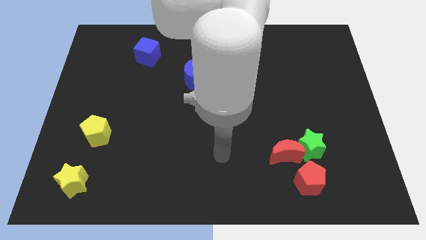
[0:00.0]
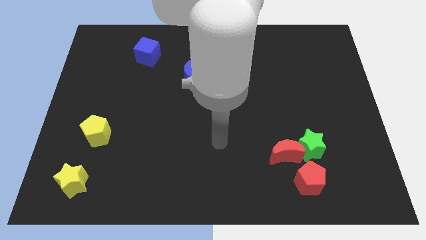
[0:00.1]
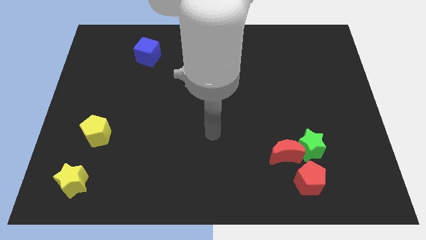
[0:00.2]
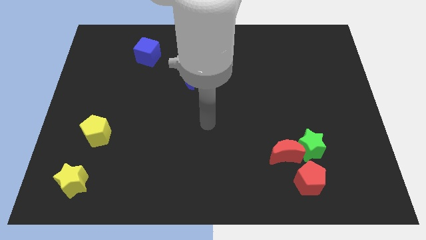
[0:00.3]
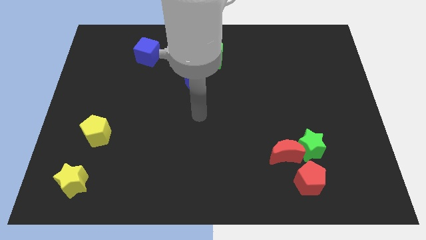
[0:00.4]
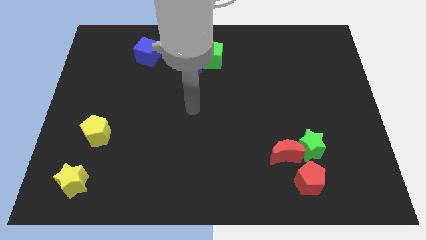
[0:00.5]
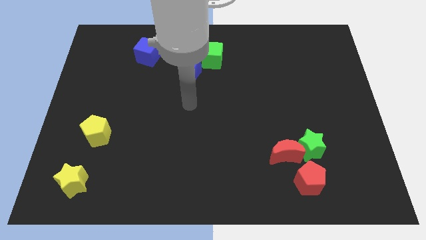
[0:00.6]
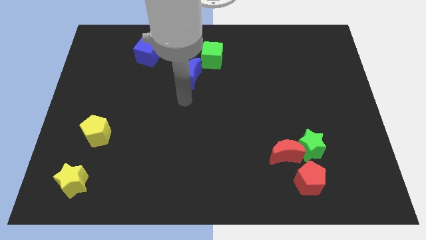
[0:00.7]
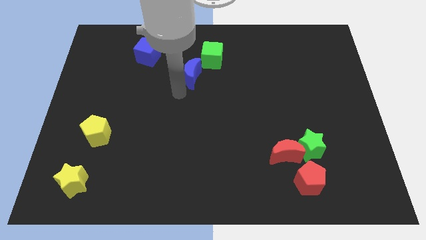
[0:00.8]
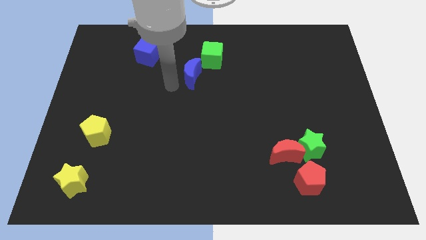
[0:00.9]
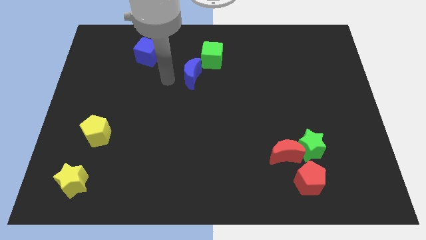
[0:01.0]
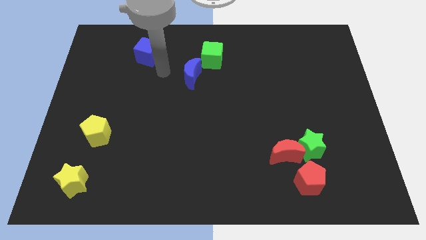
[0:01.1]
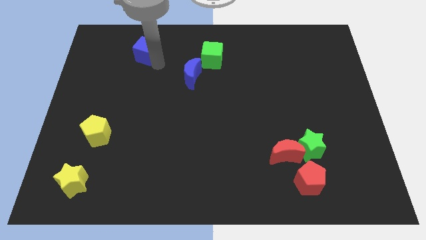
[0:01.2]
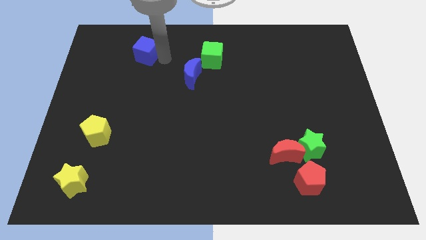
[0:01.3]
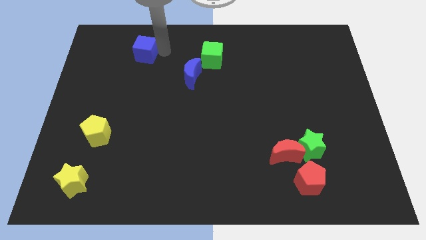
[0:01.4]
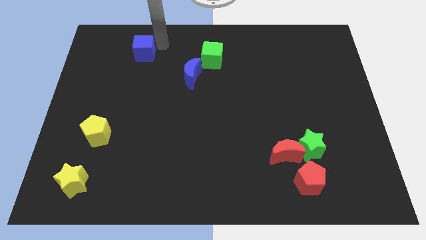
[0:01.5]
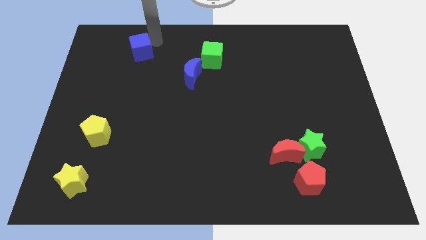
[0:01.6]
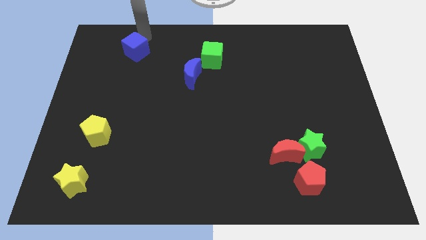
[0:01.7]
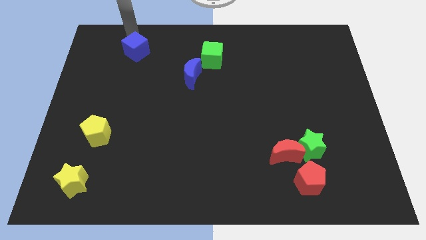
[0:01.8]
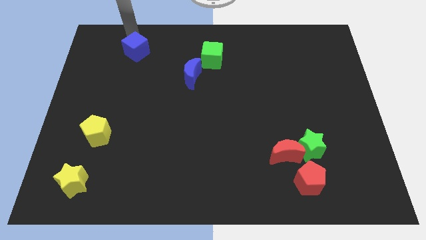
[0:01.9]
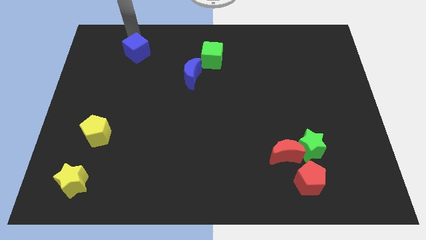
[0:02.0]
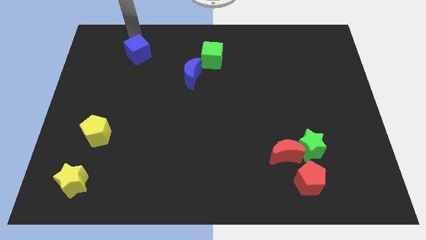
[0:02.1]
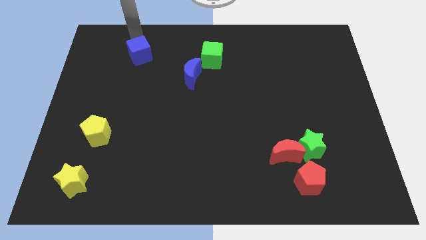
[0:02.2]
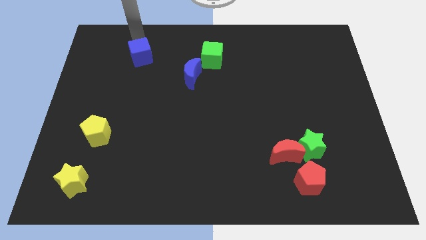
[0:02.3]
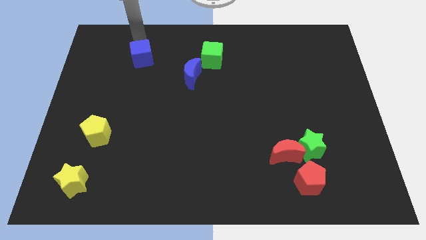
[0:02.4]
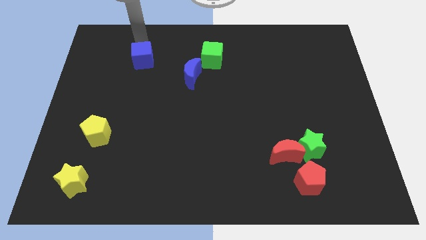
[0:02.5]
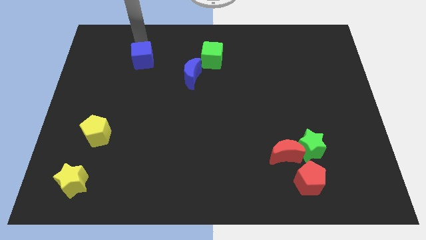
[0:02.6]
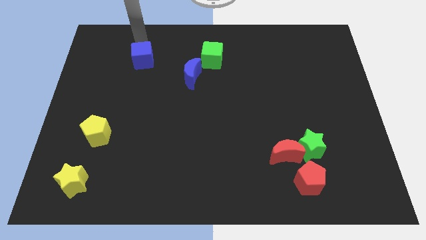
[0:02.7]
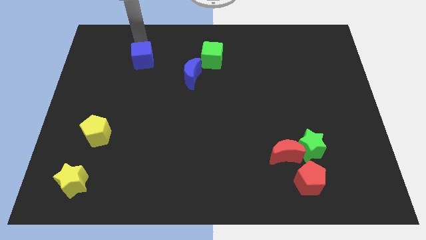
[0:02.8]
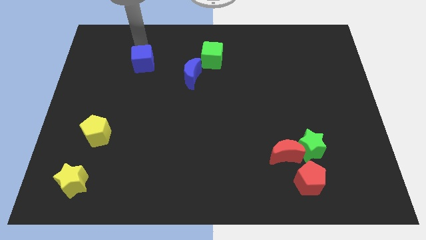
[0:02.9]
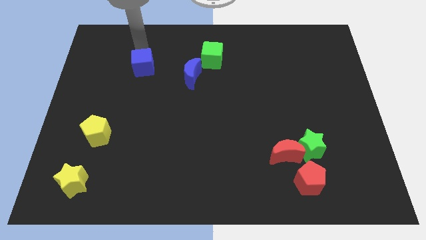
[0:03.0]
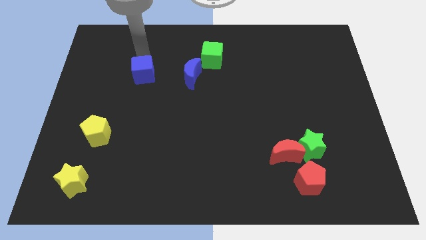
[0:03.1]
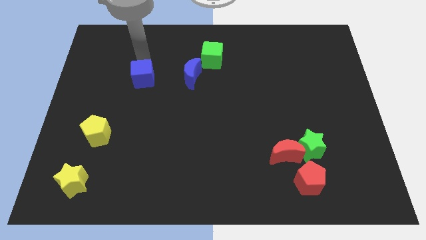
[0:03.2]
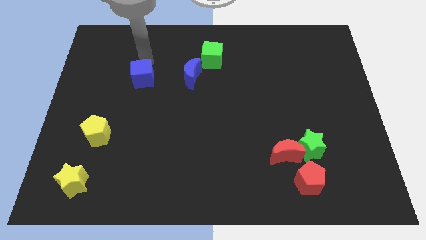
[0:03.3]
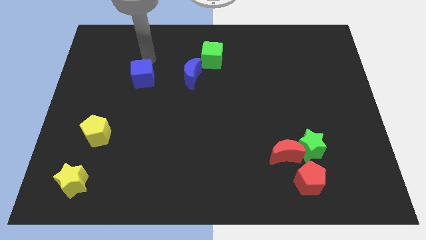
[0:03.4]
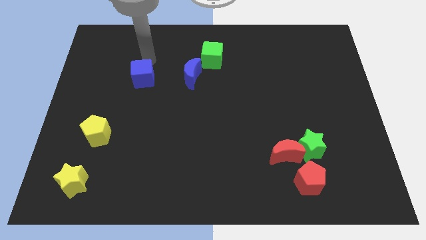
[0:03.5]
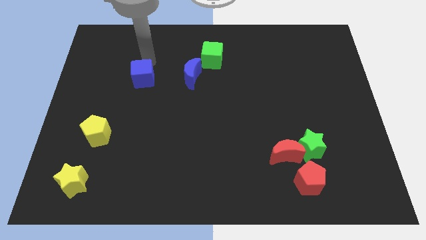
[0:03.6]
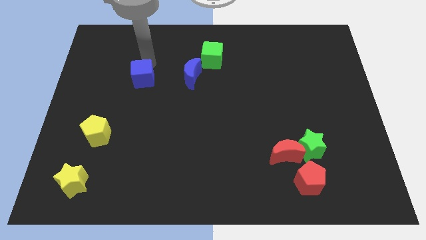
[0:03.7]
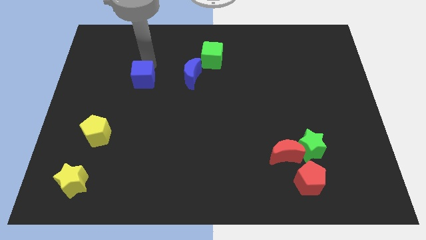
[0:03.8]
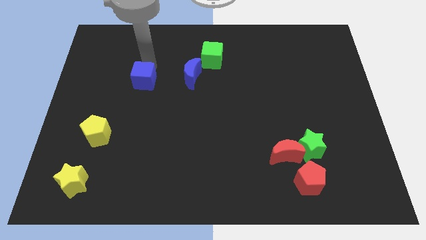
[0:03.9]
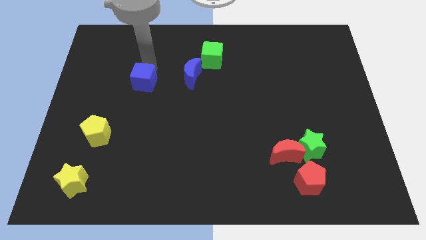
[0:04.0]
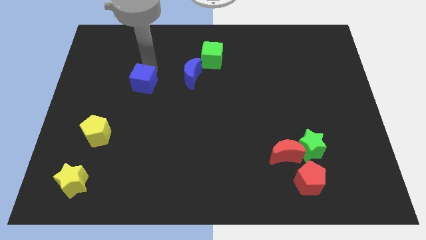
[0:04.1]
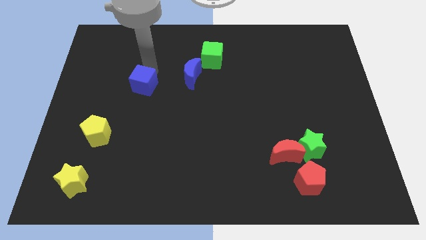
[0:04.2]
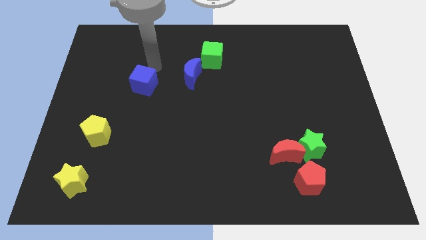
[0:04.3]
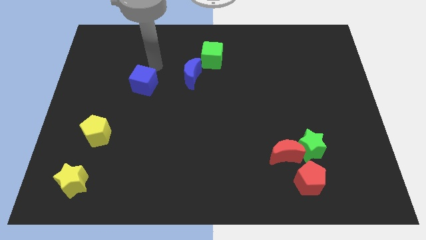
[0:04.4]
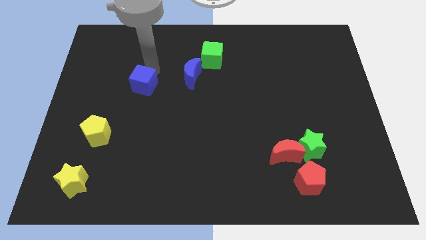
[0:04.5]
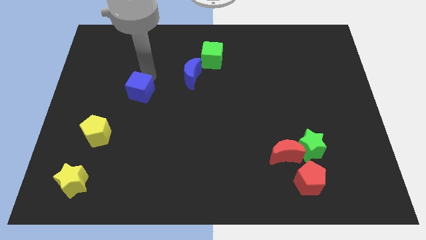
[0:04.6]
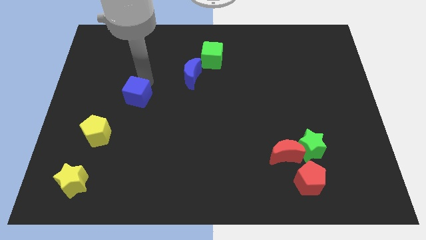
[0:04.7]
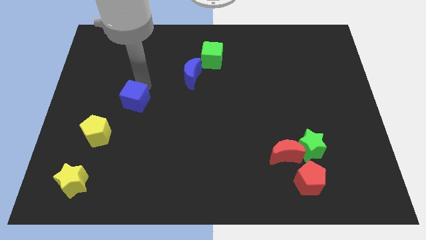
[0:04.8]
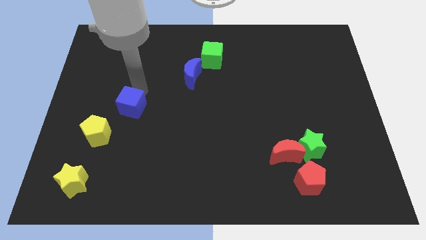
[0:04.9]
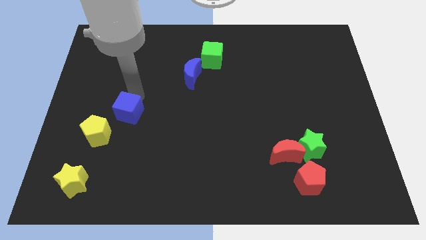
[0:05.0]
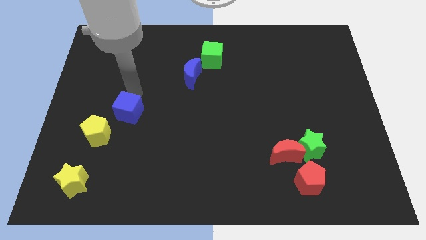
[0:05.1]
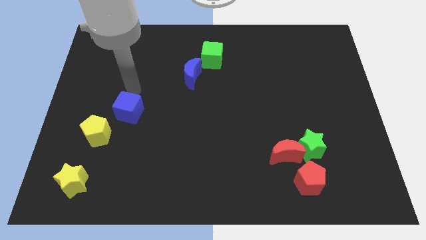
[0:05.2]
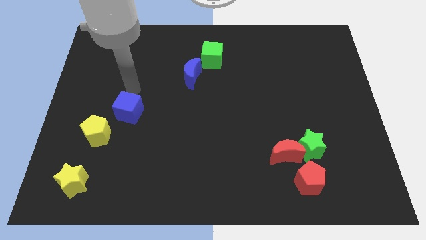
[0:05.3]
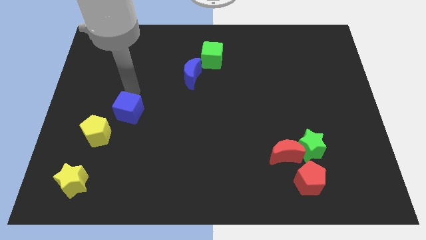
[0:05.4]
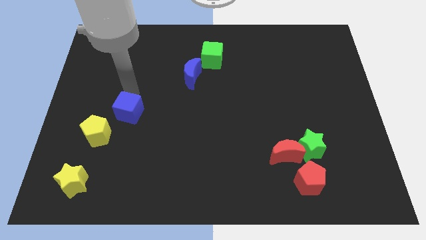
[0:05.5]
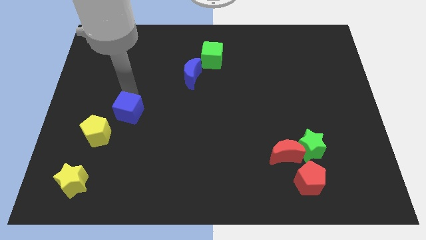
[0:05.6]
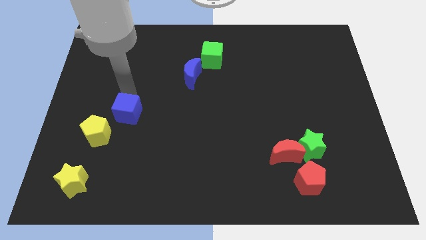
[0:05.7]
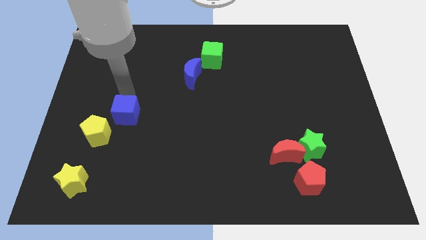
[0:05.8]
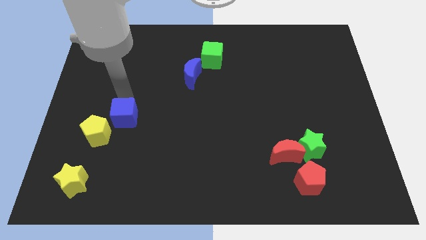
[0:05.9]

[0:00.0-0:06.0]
push the blue cube downwards

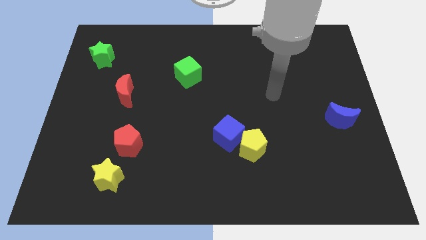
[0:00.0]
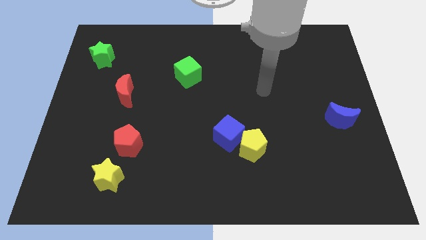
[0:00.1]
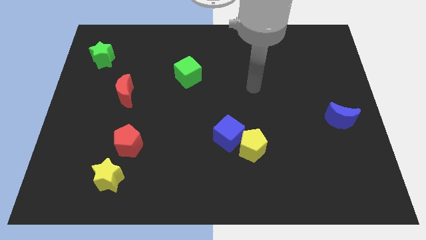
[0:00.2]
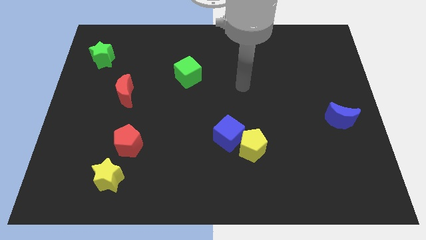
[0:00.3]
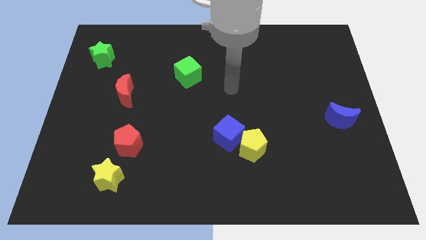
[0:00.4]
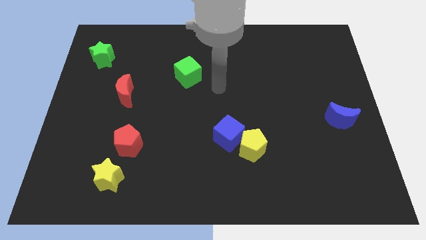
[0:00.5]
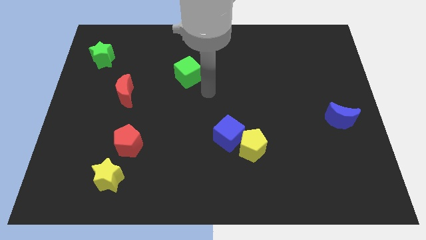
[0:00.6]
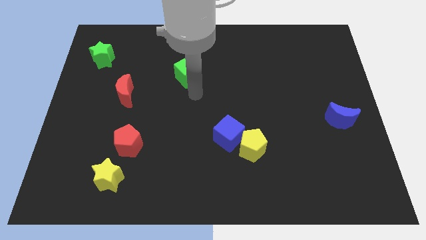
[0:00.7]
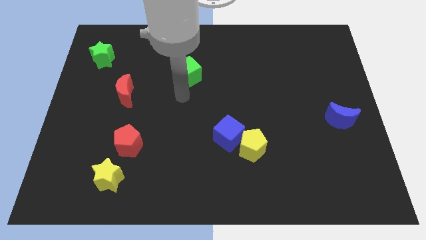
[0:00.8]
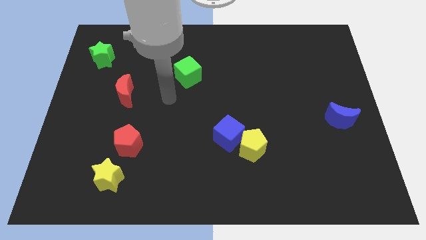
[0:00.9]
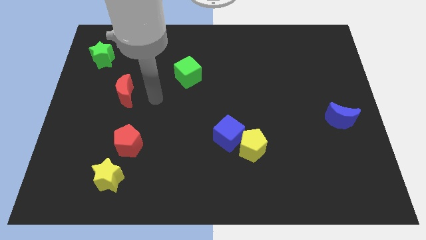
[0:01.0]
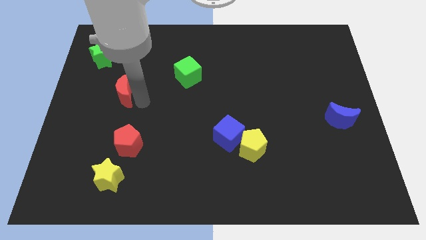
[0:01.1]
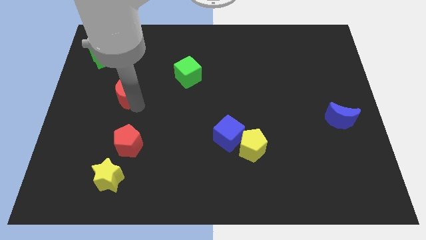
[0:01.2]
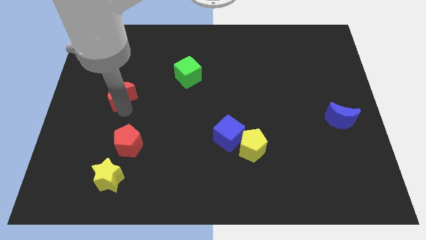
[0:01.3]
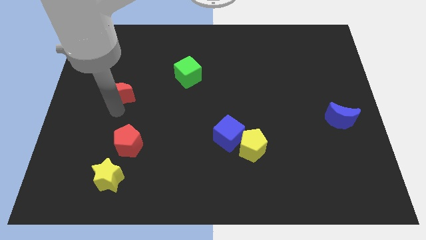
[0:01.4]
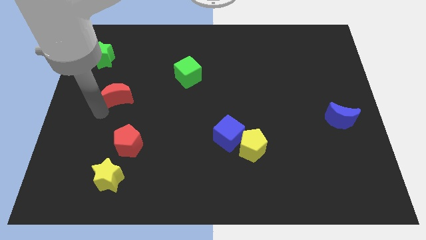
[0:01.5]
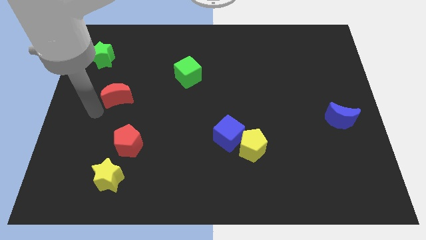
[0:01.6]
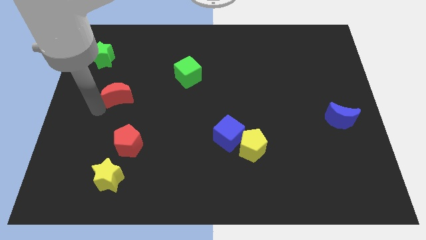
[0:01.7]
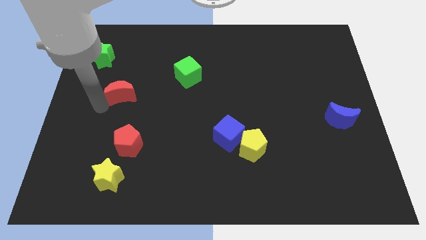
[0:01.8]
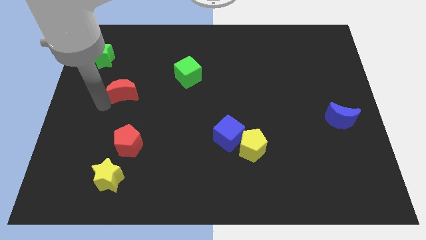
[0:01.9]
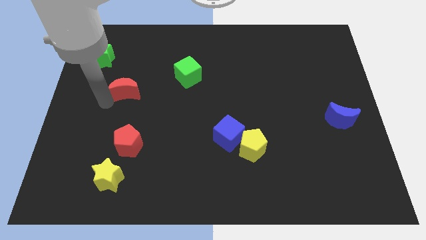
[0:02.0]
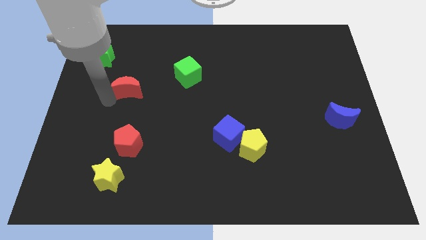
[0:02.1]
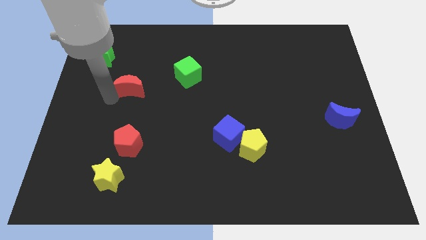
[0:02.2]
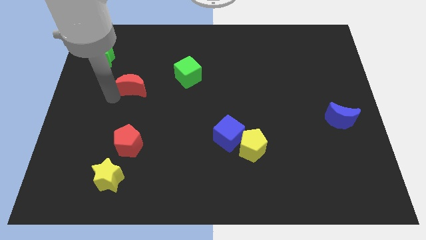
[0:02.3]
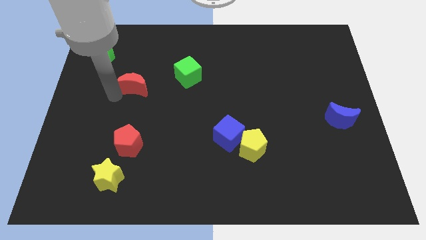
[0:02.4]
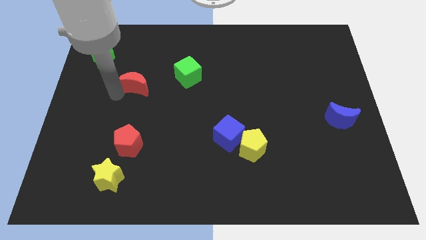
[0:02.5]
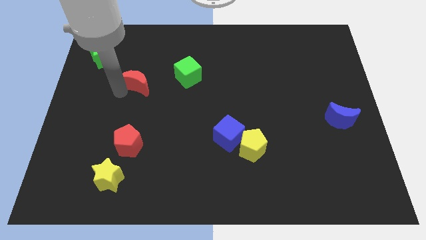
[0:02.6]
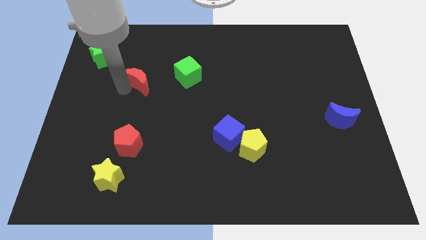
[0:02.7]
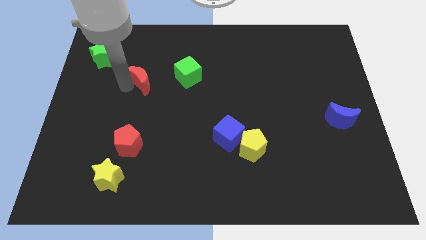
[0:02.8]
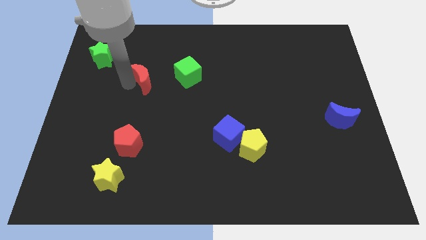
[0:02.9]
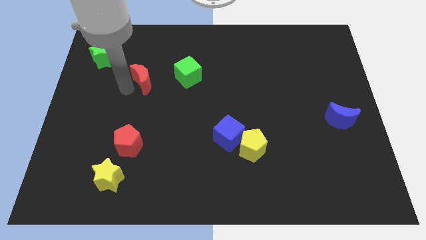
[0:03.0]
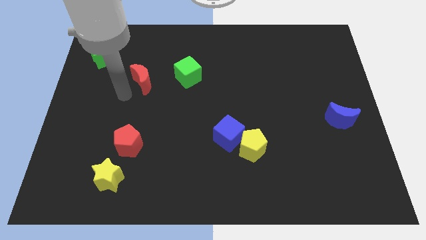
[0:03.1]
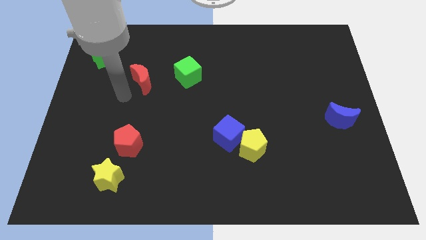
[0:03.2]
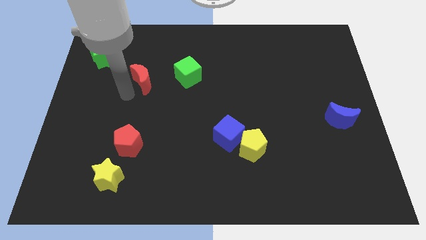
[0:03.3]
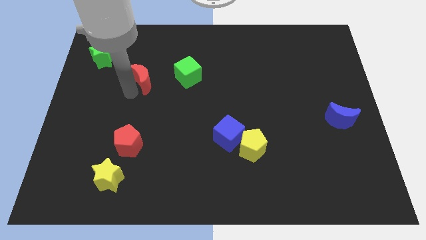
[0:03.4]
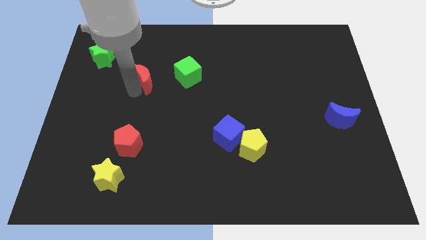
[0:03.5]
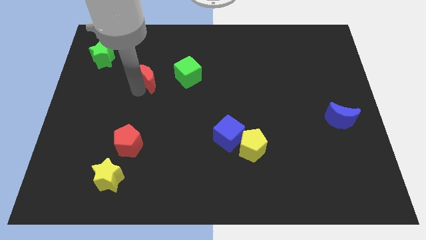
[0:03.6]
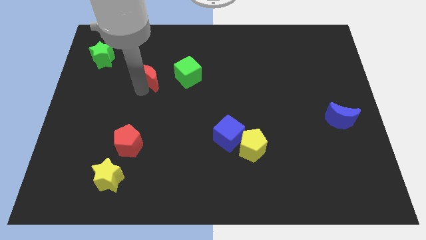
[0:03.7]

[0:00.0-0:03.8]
move the red moon diagonally up and right a little bit
